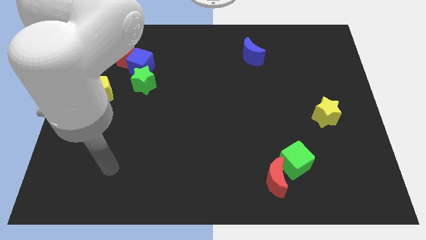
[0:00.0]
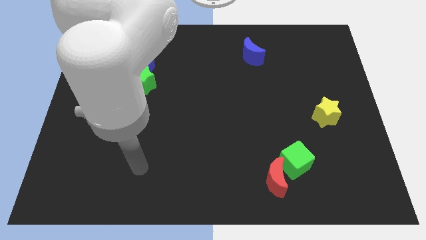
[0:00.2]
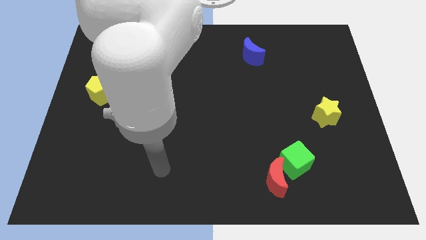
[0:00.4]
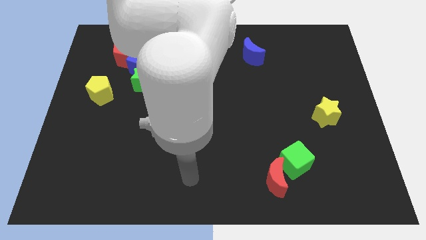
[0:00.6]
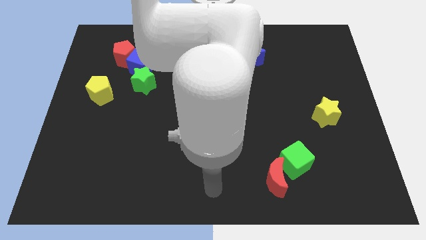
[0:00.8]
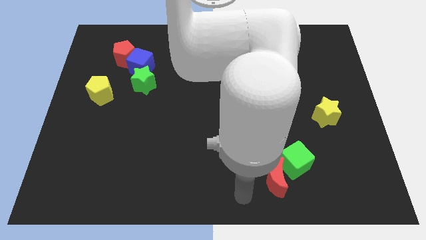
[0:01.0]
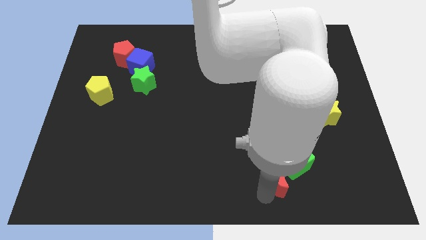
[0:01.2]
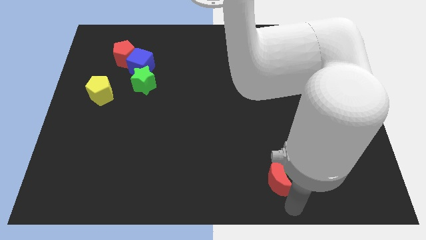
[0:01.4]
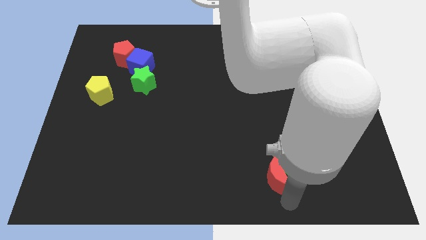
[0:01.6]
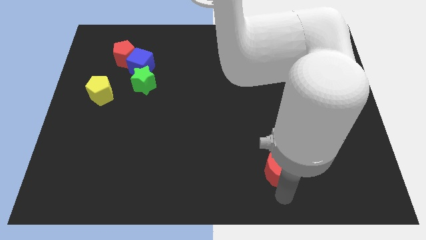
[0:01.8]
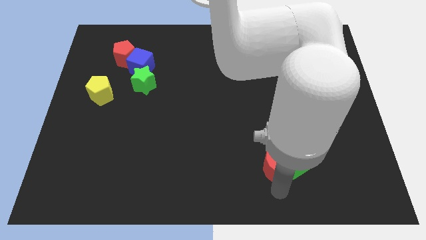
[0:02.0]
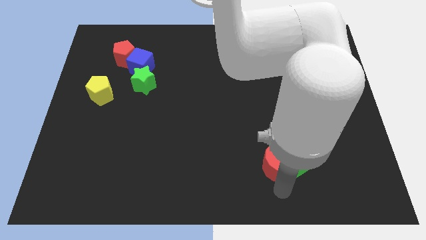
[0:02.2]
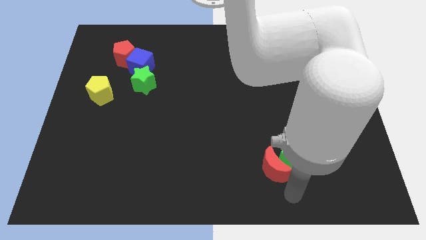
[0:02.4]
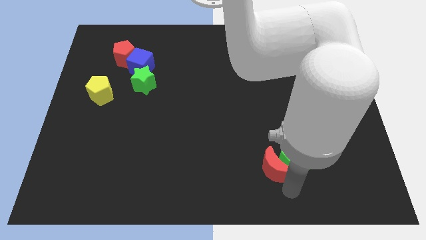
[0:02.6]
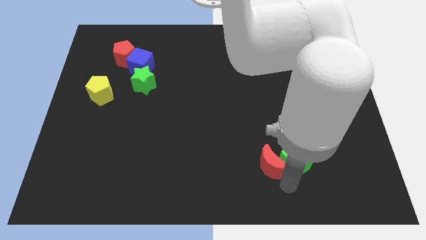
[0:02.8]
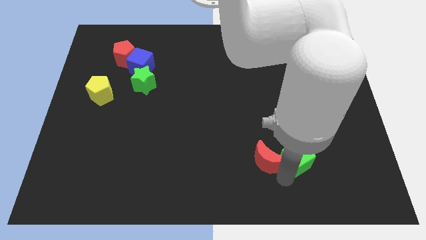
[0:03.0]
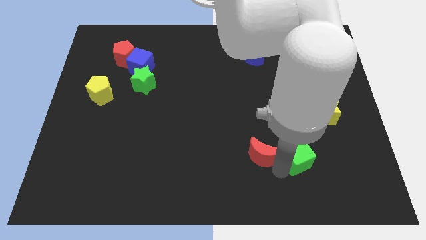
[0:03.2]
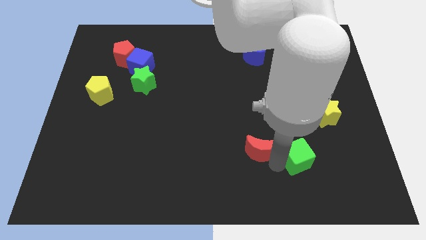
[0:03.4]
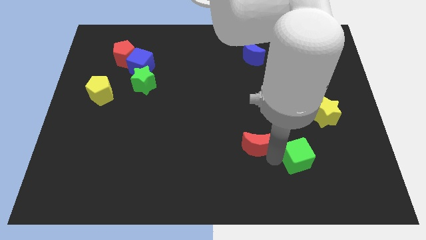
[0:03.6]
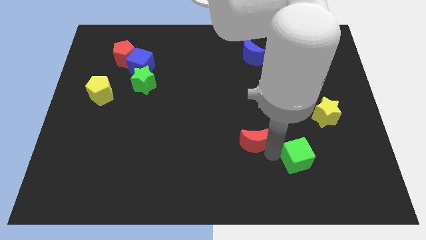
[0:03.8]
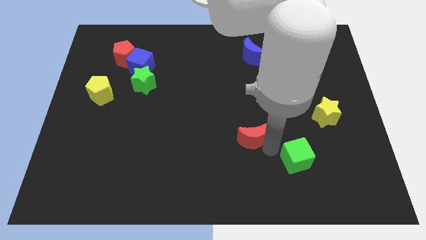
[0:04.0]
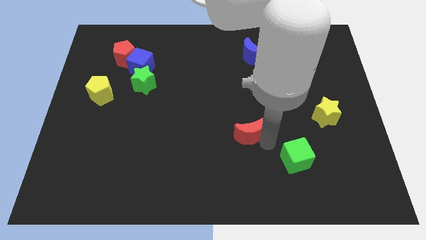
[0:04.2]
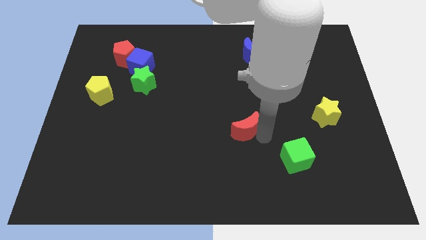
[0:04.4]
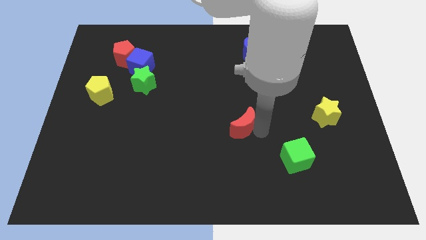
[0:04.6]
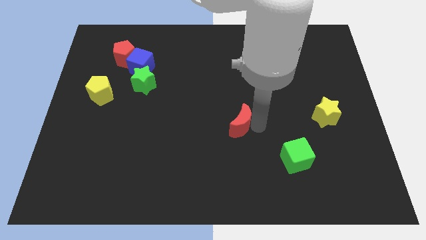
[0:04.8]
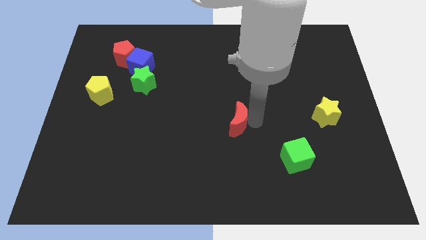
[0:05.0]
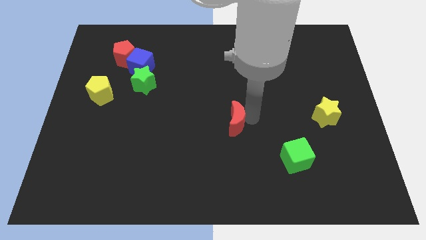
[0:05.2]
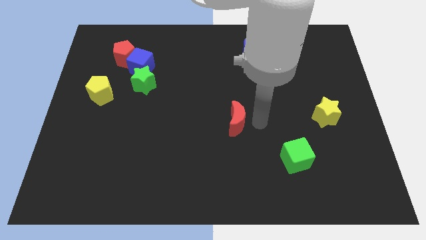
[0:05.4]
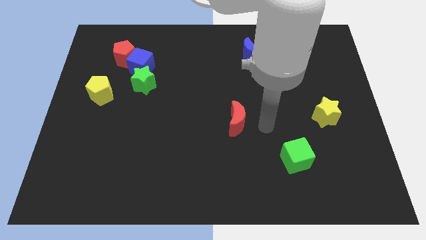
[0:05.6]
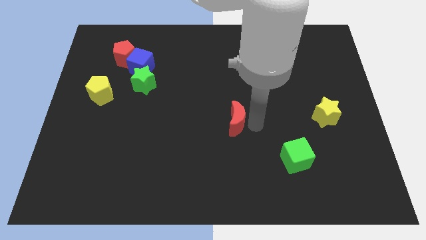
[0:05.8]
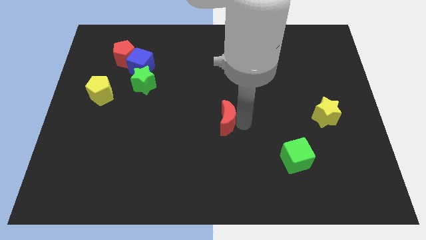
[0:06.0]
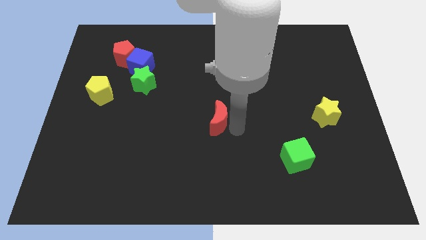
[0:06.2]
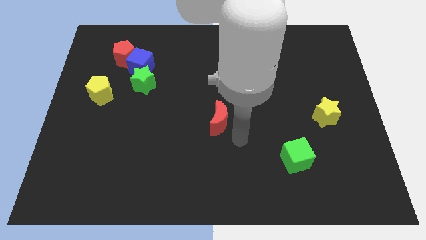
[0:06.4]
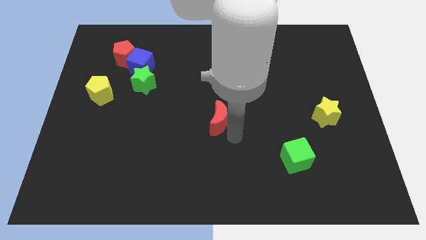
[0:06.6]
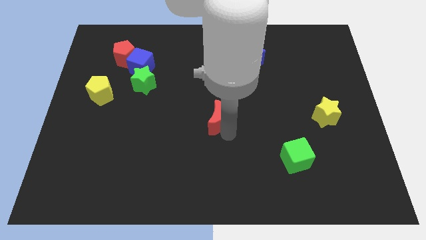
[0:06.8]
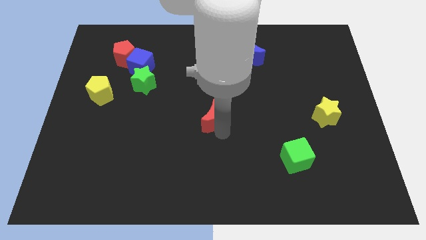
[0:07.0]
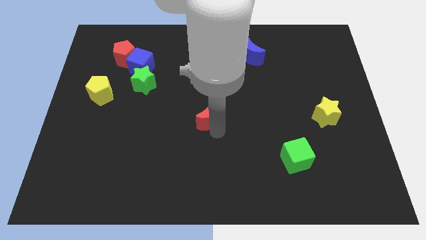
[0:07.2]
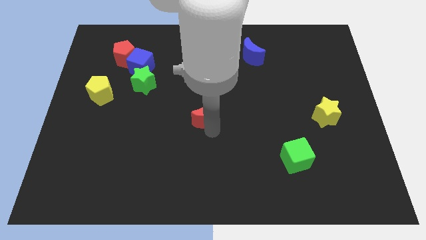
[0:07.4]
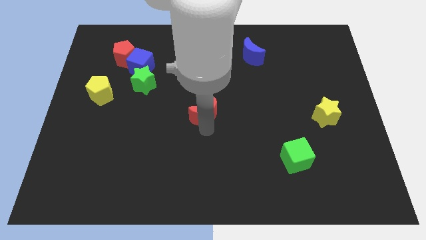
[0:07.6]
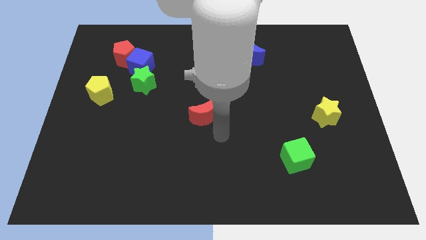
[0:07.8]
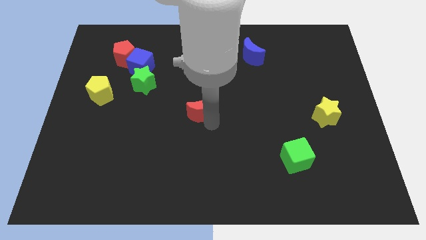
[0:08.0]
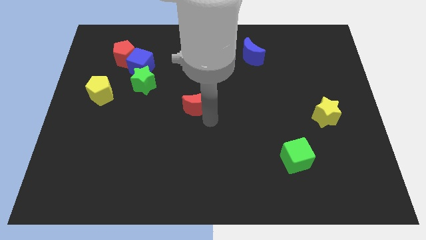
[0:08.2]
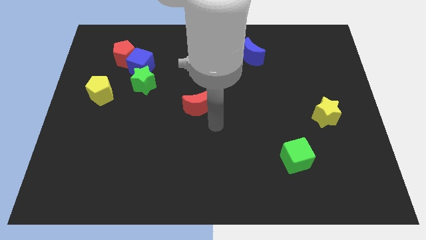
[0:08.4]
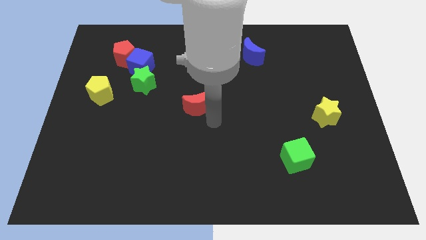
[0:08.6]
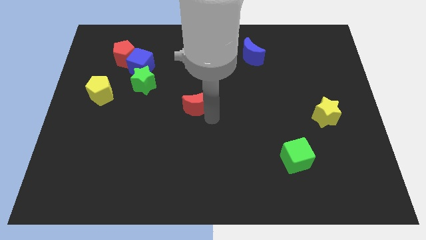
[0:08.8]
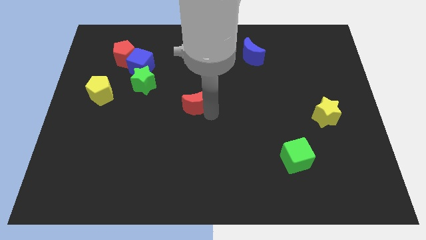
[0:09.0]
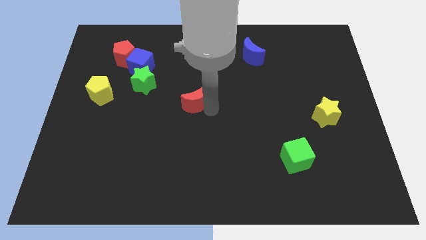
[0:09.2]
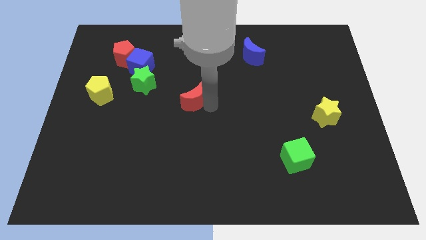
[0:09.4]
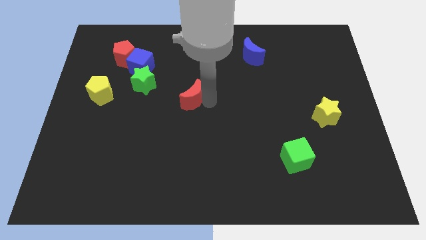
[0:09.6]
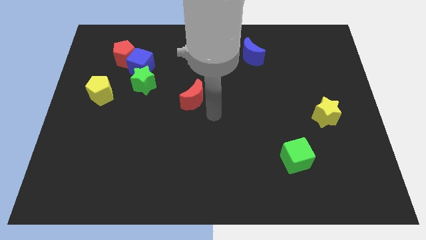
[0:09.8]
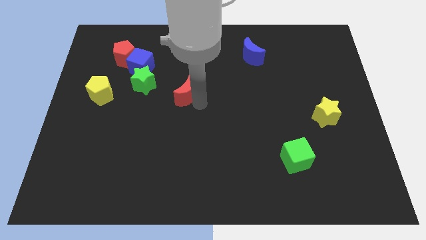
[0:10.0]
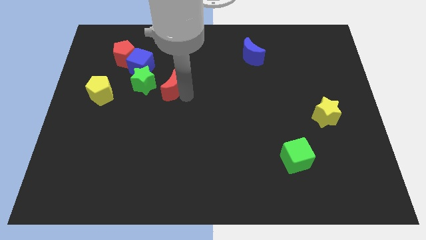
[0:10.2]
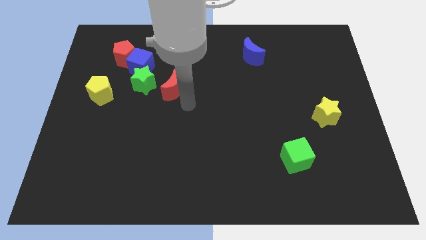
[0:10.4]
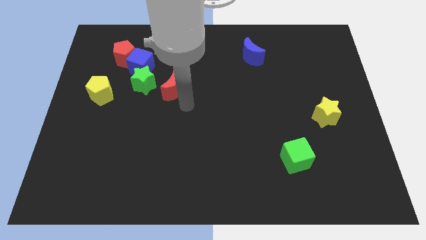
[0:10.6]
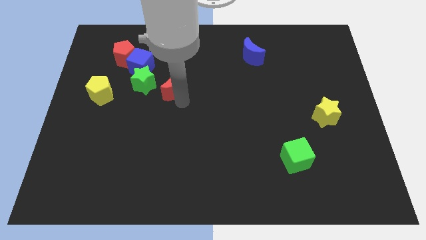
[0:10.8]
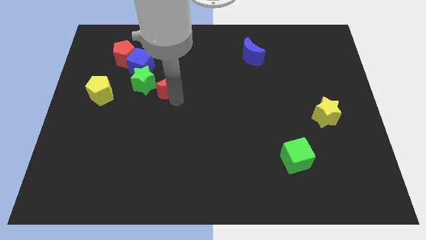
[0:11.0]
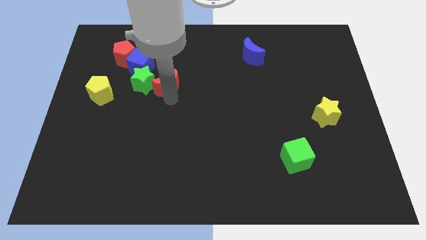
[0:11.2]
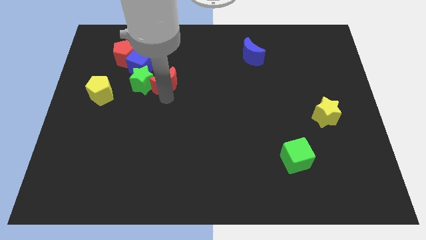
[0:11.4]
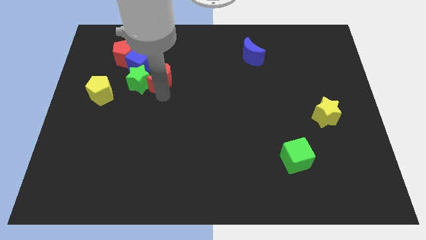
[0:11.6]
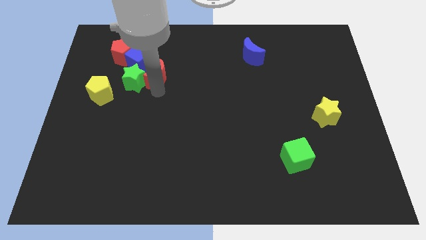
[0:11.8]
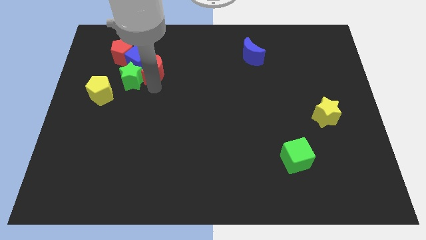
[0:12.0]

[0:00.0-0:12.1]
move the red moon towards the blue cube

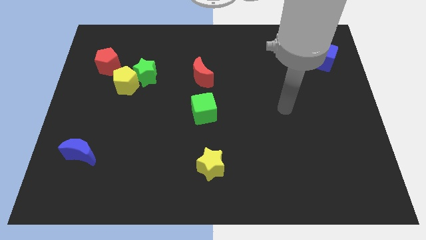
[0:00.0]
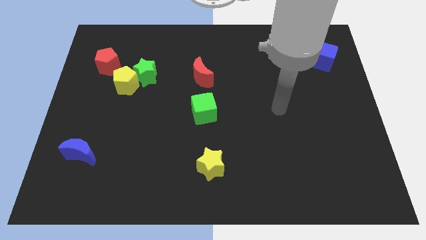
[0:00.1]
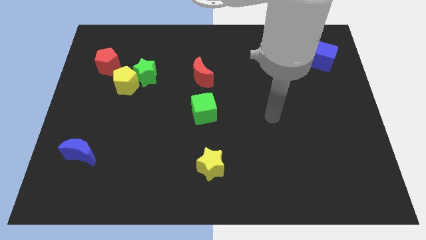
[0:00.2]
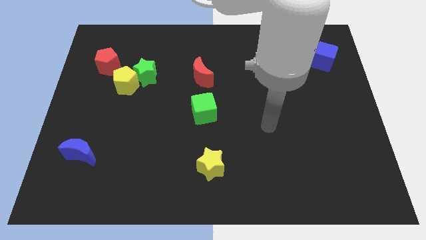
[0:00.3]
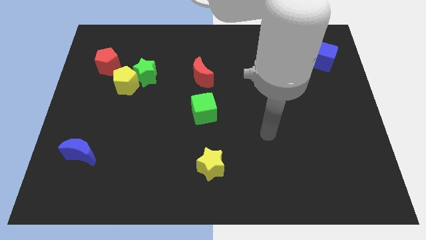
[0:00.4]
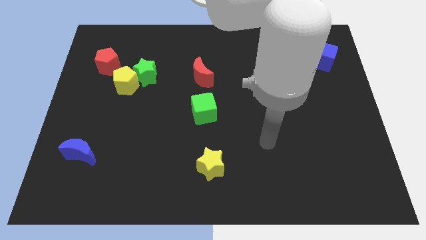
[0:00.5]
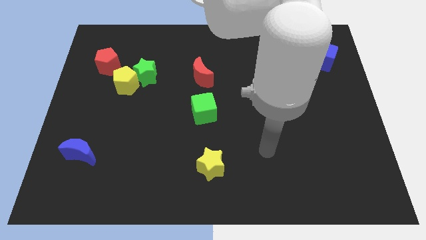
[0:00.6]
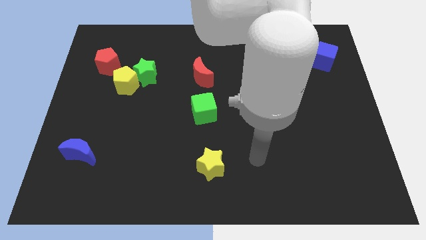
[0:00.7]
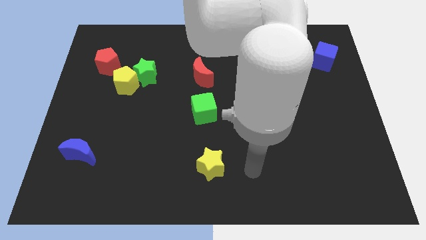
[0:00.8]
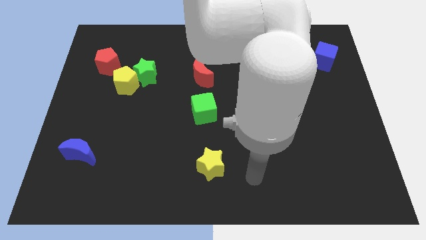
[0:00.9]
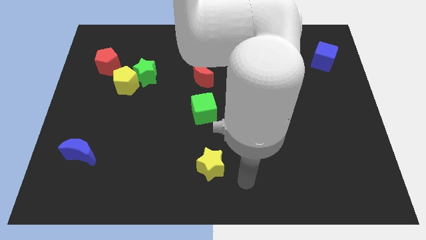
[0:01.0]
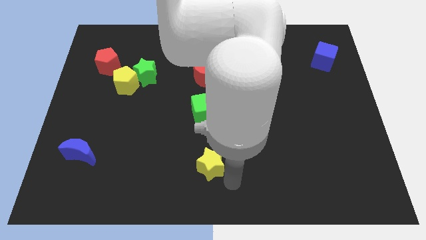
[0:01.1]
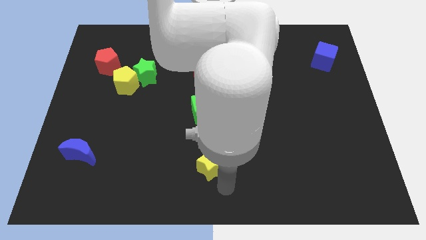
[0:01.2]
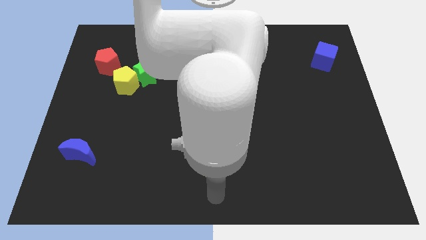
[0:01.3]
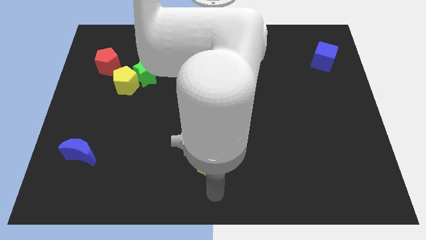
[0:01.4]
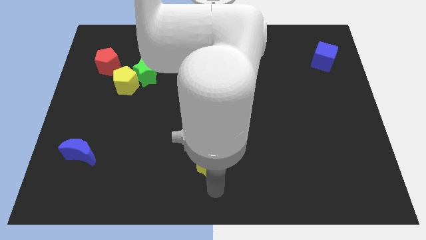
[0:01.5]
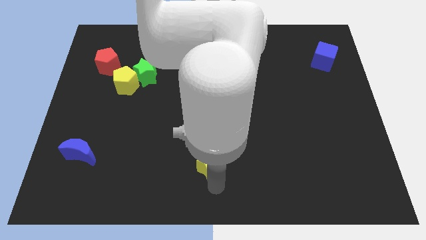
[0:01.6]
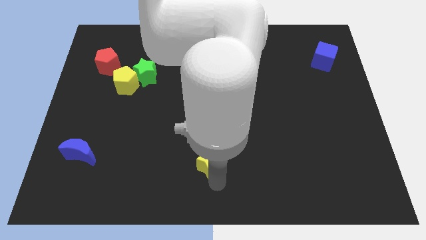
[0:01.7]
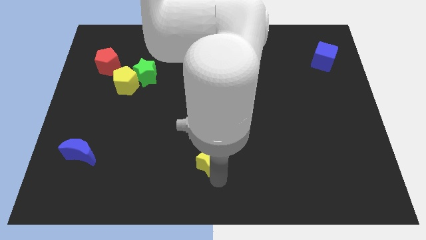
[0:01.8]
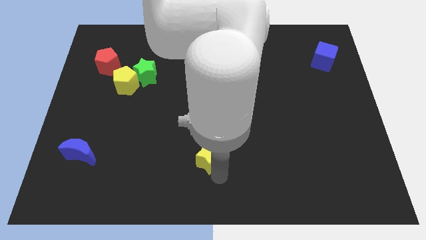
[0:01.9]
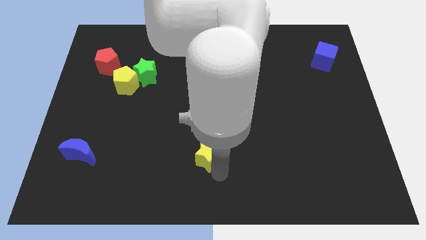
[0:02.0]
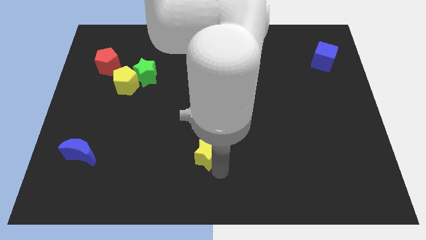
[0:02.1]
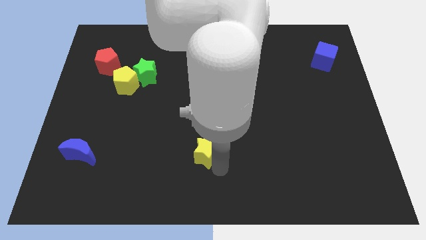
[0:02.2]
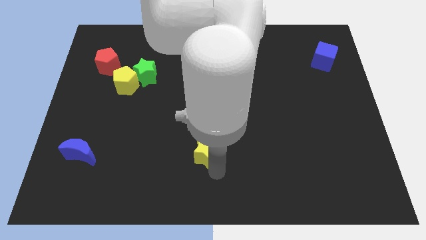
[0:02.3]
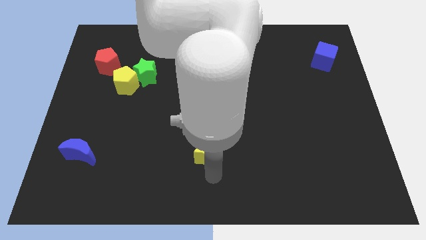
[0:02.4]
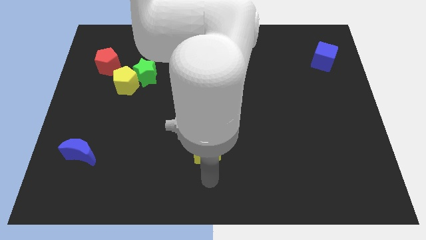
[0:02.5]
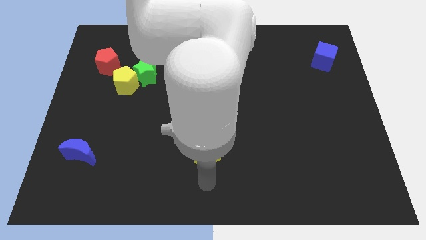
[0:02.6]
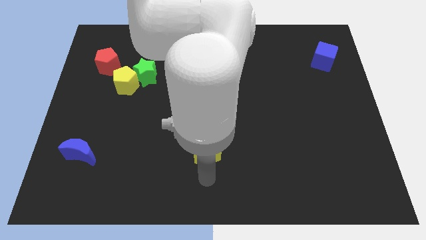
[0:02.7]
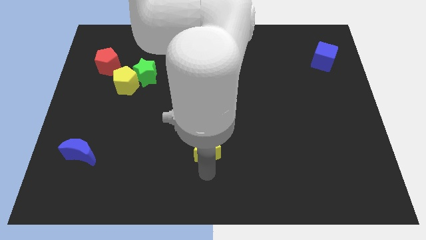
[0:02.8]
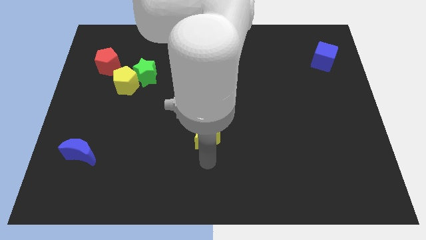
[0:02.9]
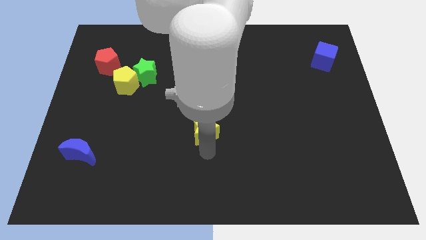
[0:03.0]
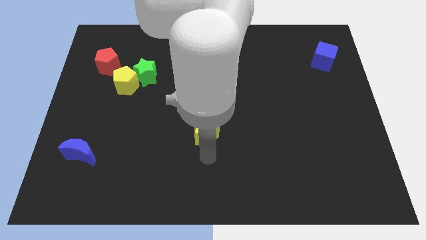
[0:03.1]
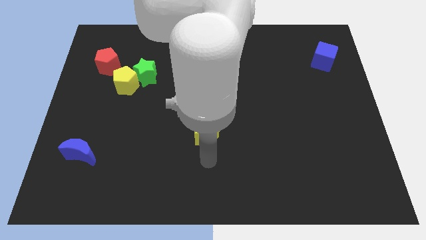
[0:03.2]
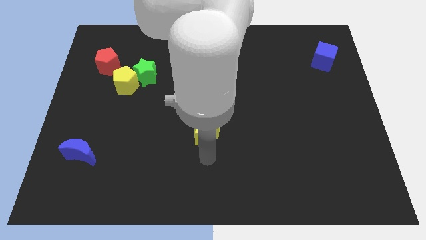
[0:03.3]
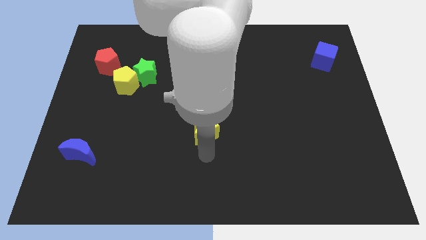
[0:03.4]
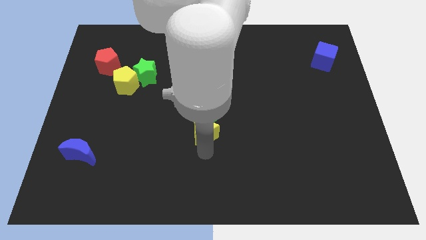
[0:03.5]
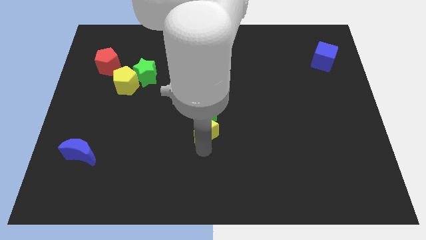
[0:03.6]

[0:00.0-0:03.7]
push the yellow star next to the green cube
